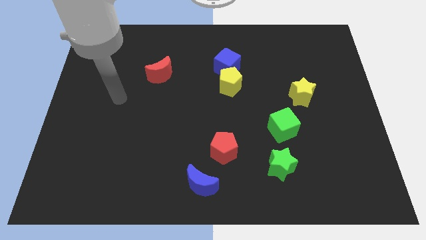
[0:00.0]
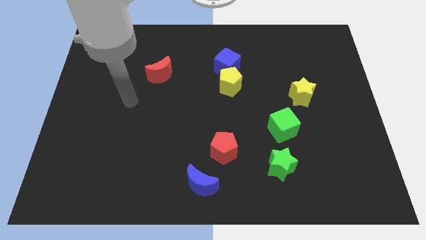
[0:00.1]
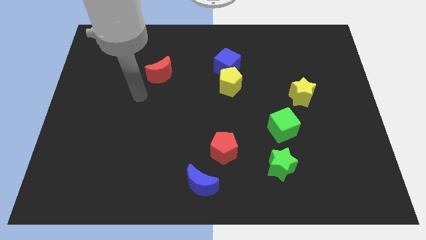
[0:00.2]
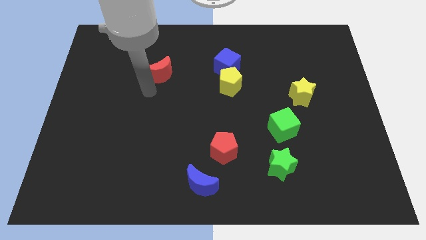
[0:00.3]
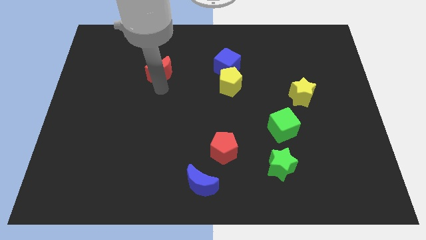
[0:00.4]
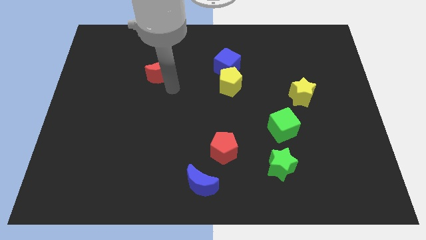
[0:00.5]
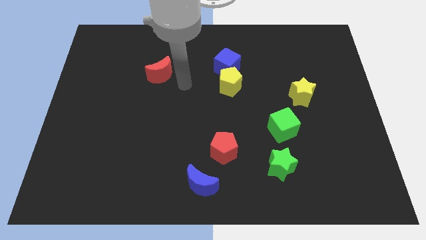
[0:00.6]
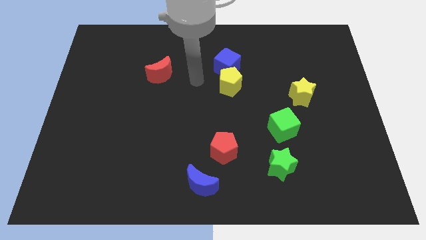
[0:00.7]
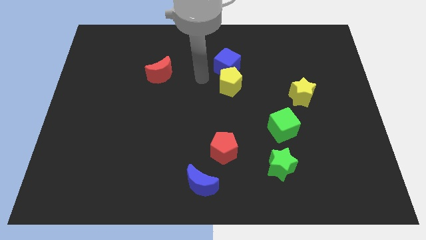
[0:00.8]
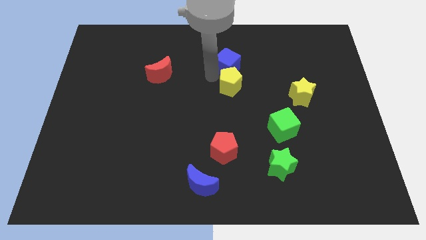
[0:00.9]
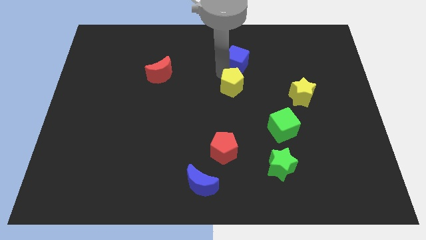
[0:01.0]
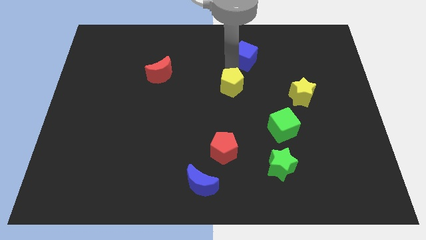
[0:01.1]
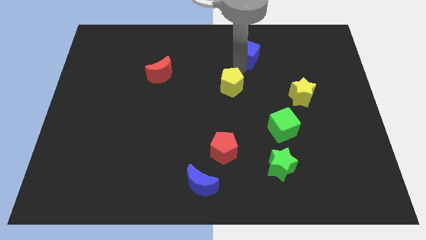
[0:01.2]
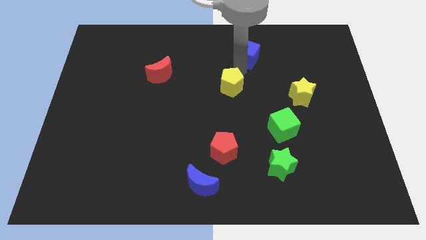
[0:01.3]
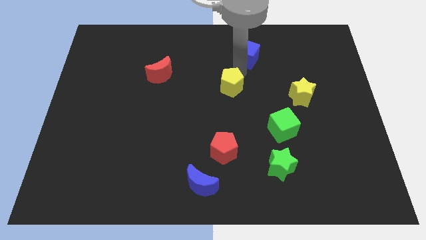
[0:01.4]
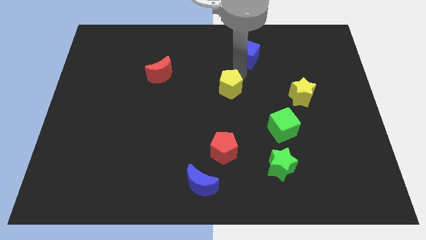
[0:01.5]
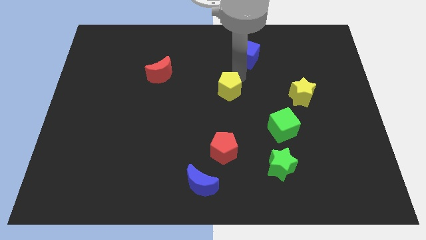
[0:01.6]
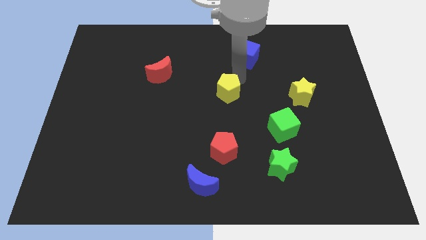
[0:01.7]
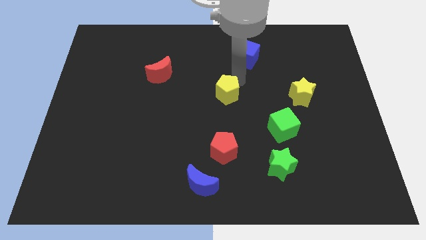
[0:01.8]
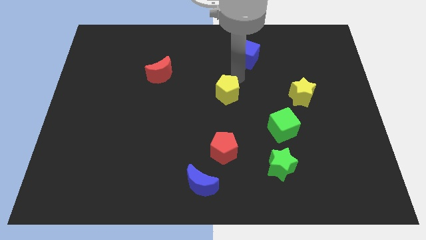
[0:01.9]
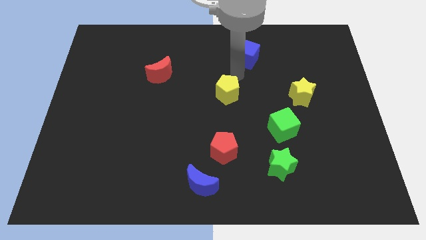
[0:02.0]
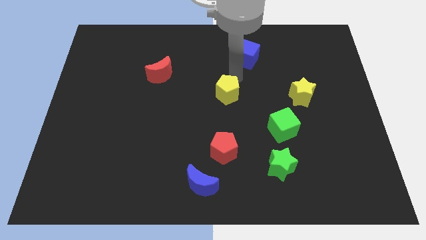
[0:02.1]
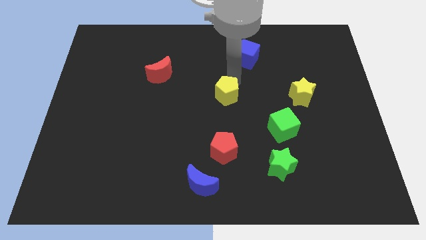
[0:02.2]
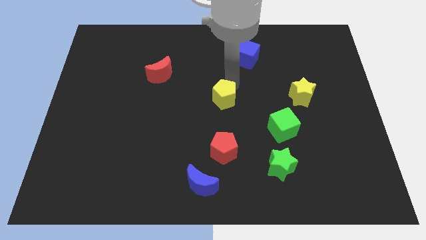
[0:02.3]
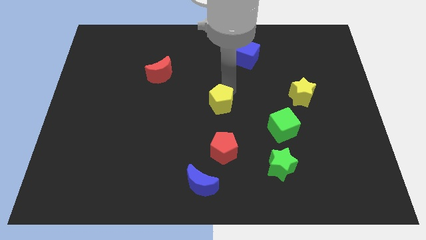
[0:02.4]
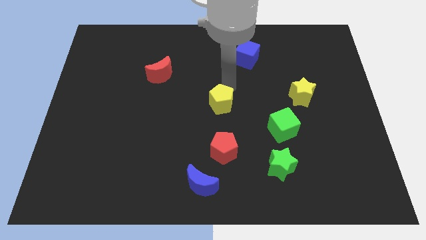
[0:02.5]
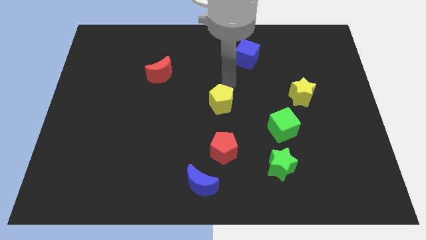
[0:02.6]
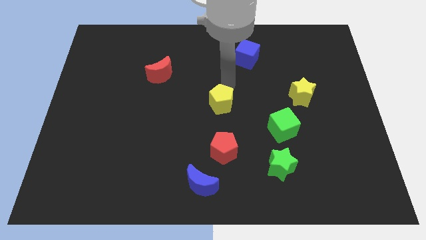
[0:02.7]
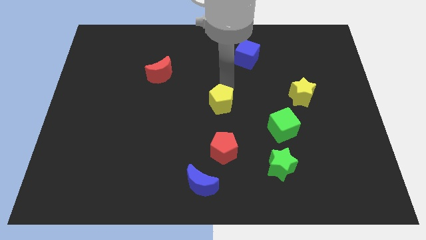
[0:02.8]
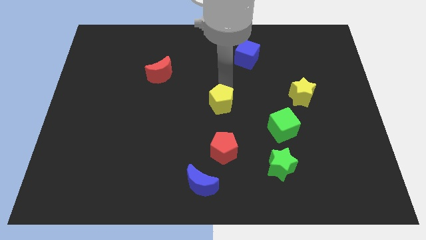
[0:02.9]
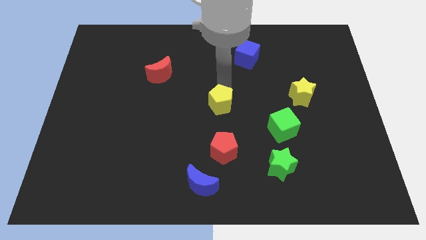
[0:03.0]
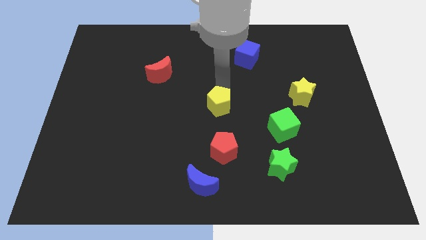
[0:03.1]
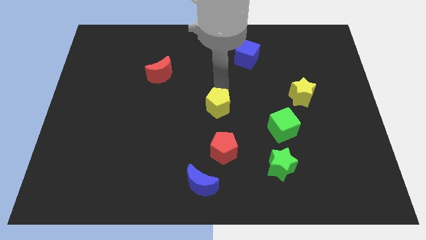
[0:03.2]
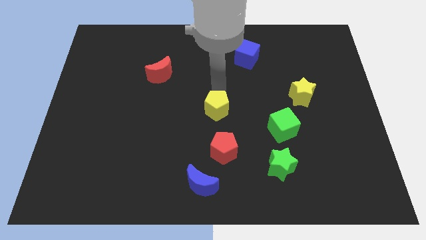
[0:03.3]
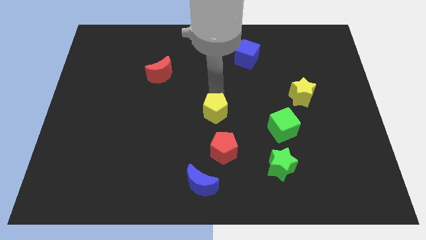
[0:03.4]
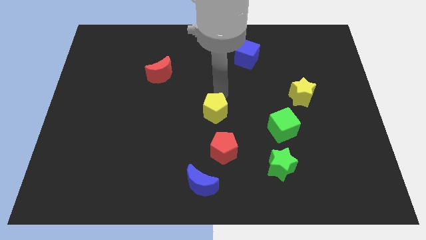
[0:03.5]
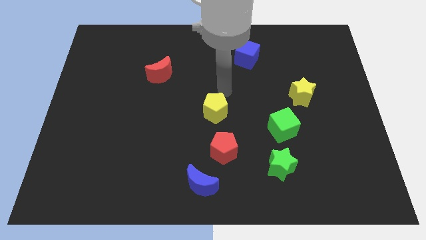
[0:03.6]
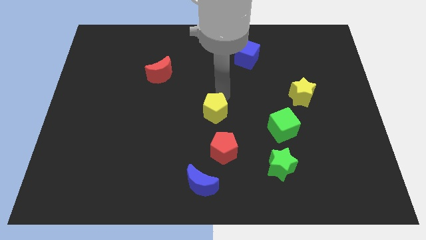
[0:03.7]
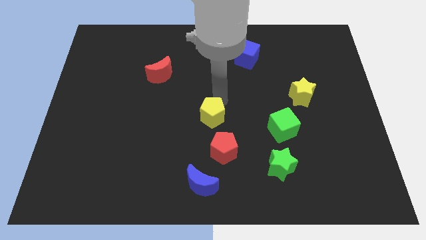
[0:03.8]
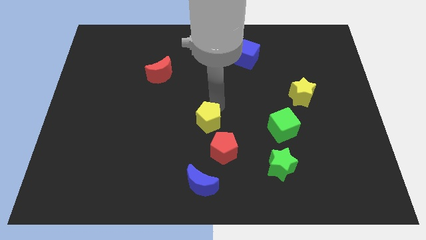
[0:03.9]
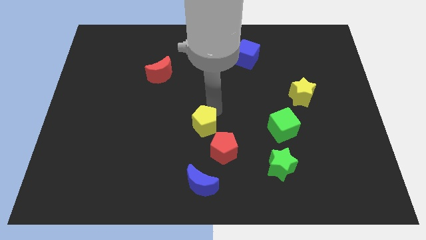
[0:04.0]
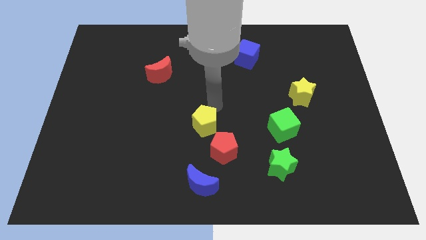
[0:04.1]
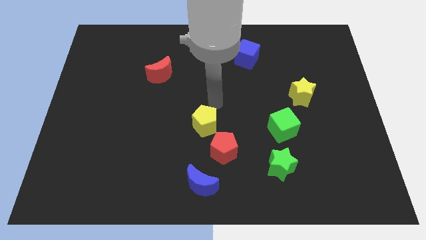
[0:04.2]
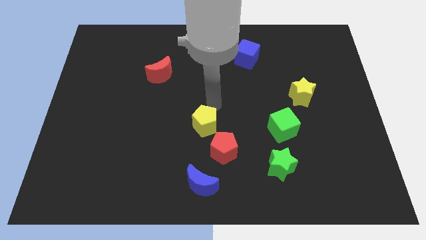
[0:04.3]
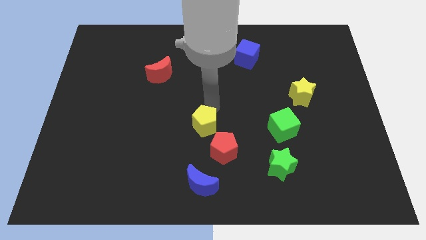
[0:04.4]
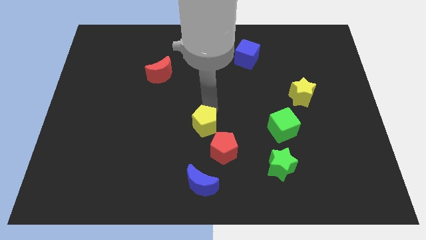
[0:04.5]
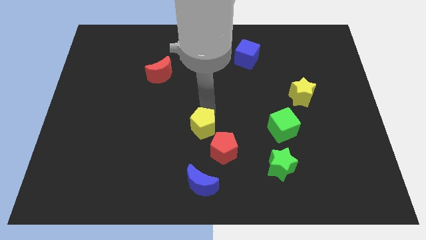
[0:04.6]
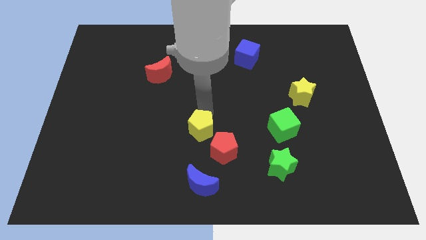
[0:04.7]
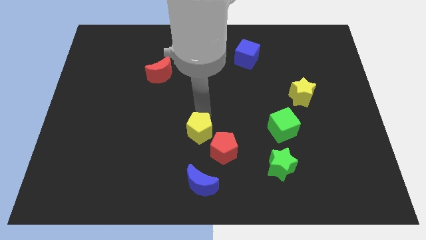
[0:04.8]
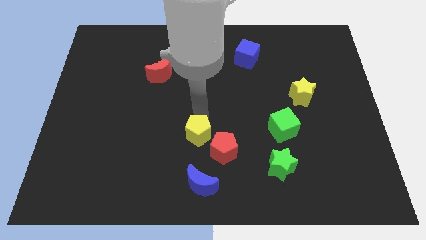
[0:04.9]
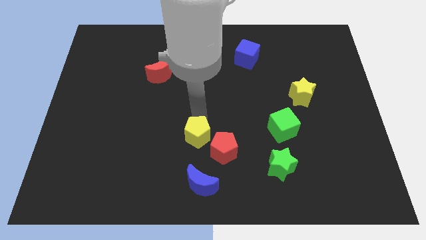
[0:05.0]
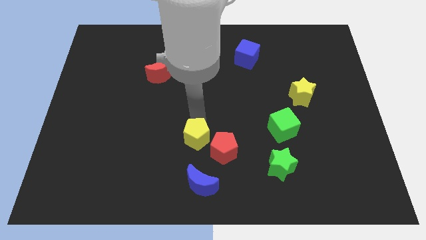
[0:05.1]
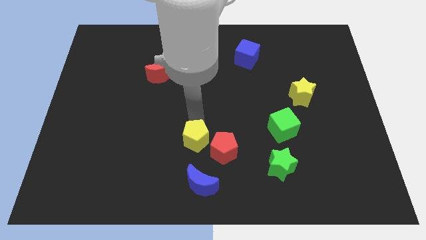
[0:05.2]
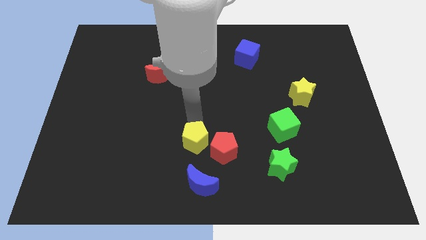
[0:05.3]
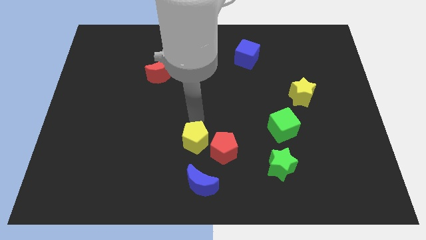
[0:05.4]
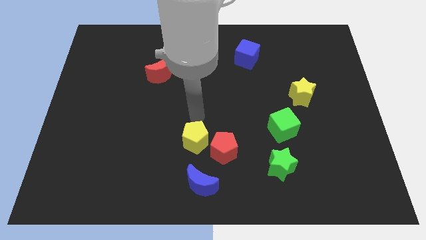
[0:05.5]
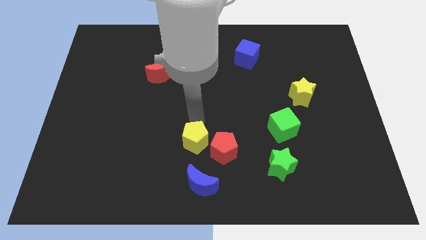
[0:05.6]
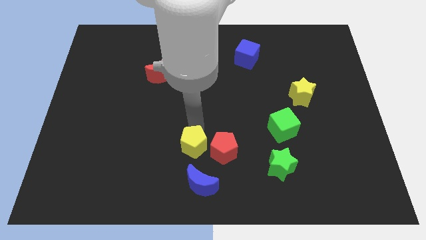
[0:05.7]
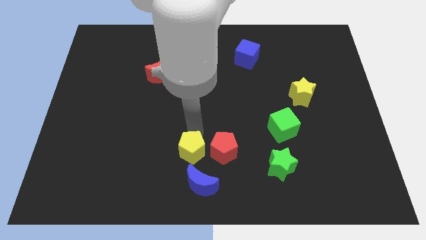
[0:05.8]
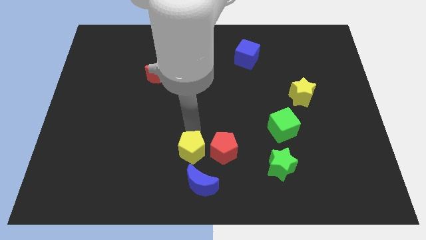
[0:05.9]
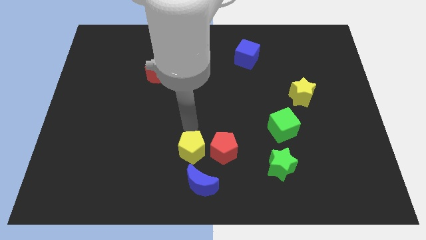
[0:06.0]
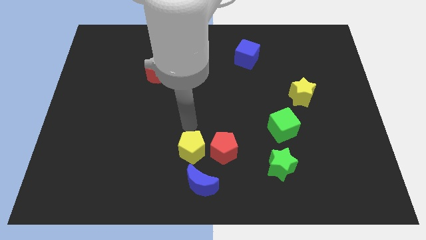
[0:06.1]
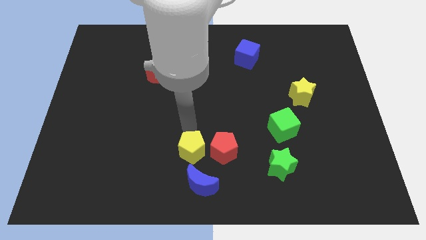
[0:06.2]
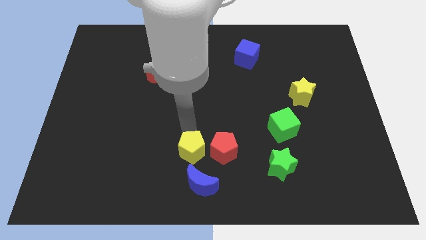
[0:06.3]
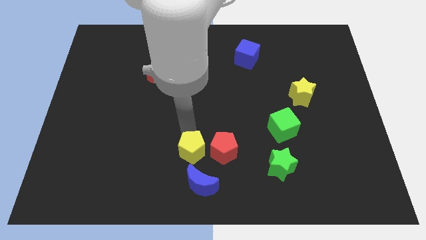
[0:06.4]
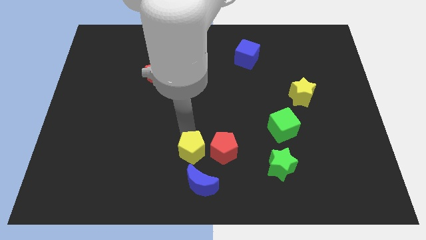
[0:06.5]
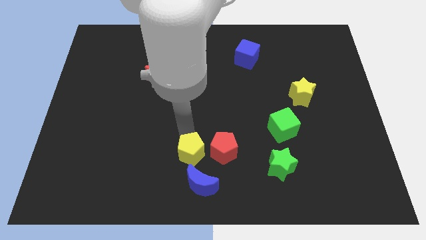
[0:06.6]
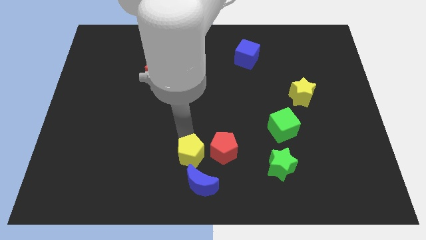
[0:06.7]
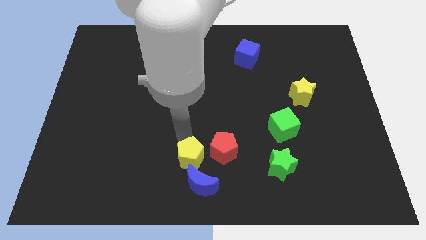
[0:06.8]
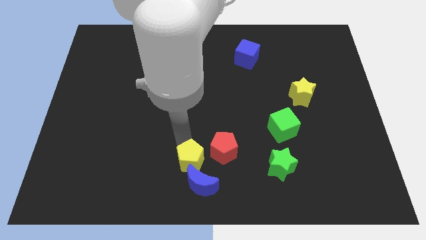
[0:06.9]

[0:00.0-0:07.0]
push the yellow pentagon next to the blue moon

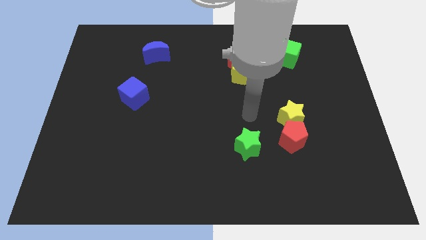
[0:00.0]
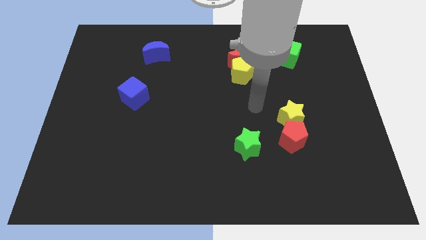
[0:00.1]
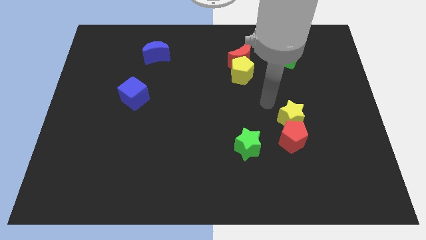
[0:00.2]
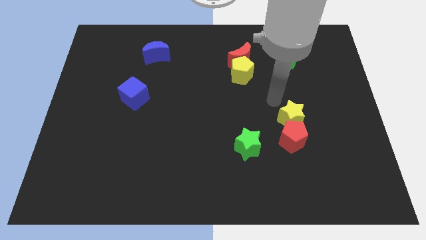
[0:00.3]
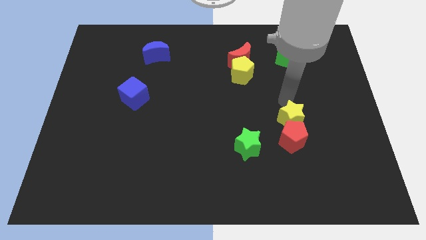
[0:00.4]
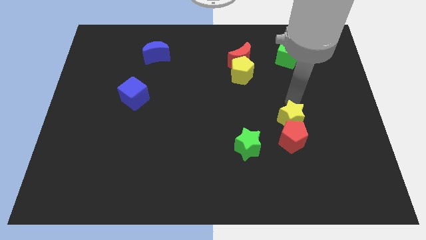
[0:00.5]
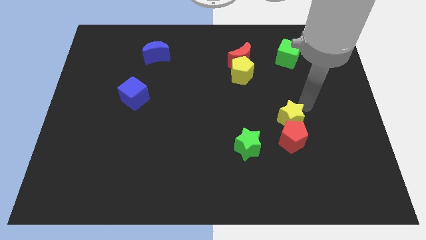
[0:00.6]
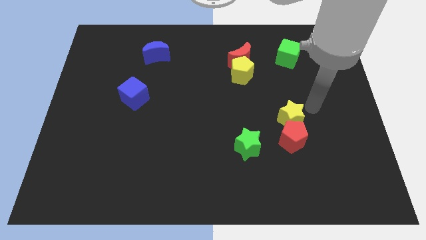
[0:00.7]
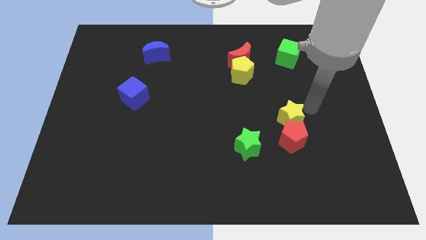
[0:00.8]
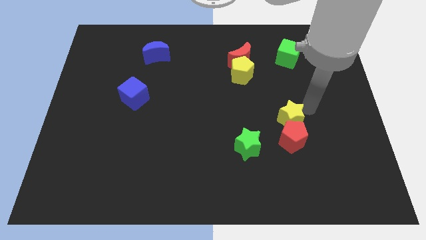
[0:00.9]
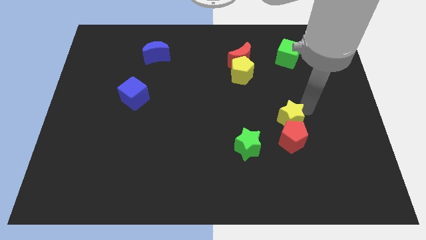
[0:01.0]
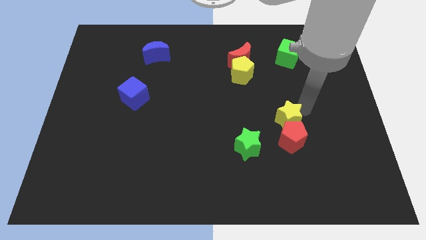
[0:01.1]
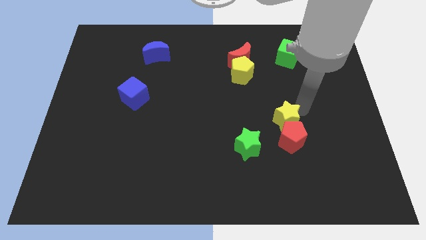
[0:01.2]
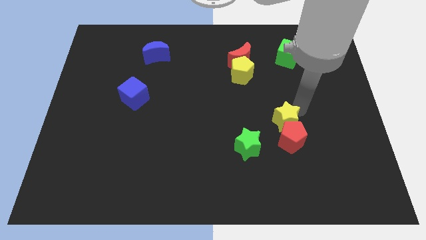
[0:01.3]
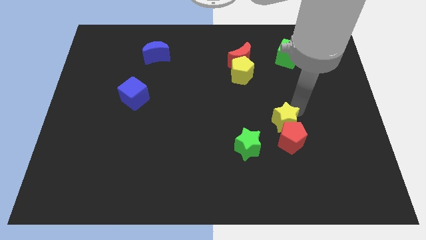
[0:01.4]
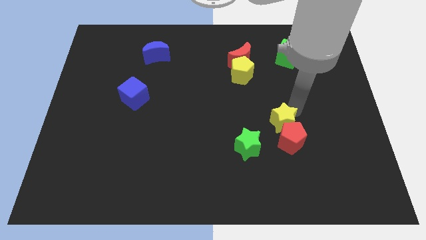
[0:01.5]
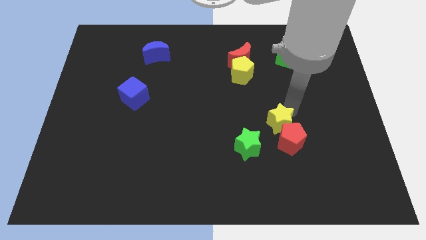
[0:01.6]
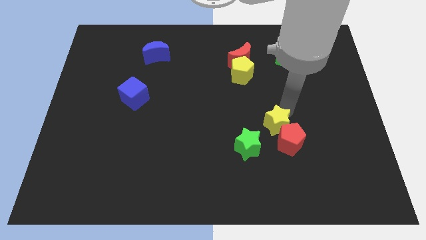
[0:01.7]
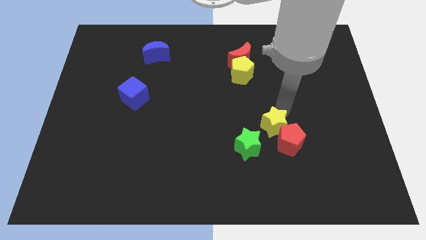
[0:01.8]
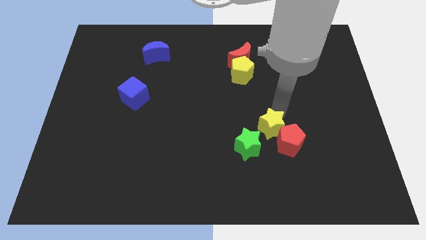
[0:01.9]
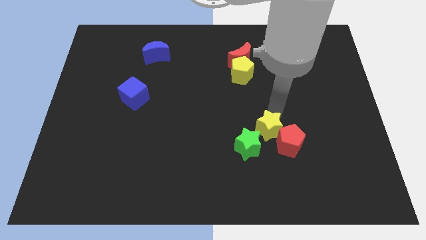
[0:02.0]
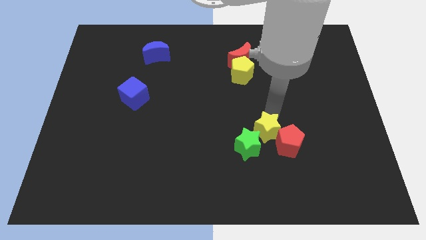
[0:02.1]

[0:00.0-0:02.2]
put the yellow star towards the green star
